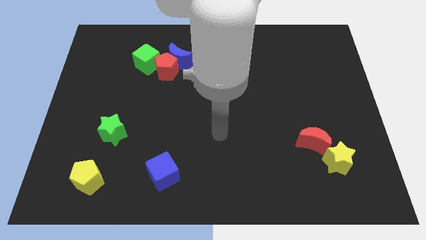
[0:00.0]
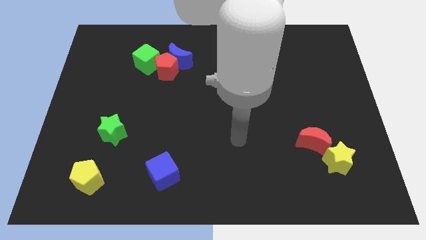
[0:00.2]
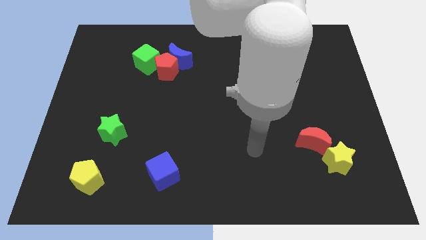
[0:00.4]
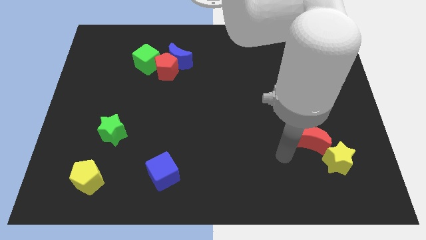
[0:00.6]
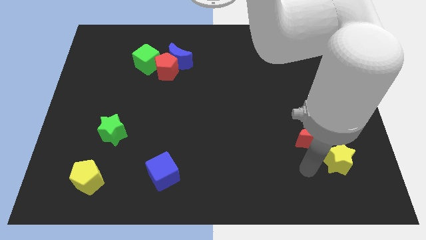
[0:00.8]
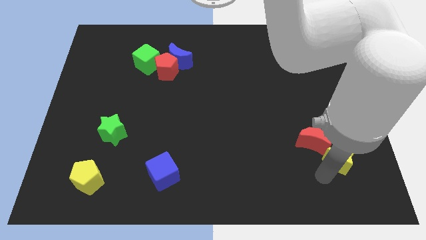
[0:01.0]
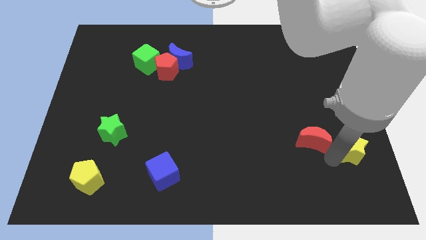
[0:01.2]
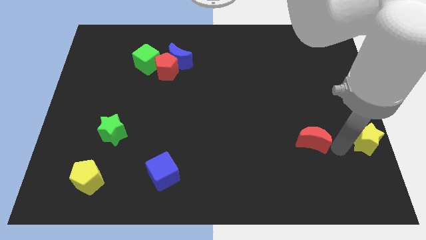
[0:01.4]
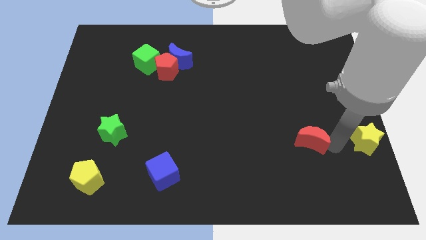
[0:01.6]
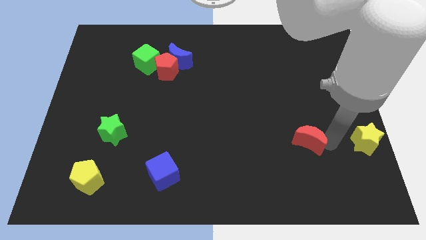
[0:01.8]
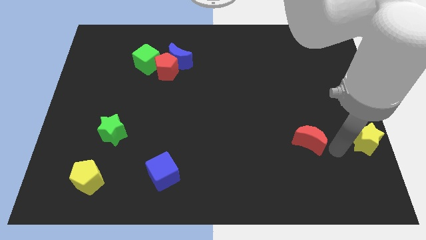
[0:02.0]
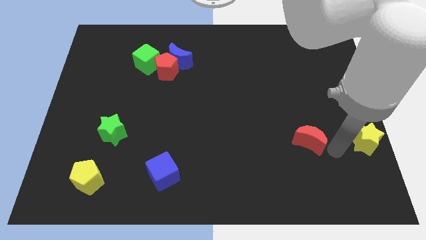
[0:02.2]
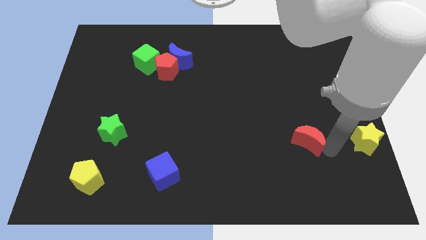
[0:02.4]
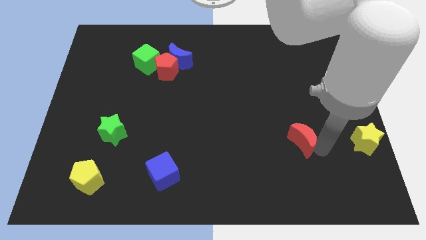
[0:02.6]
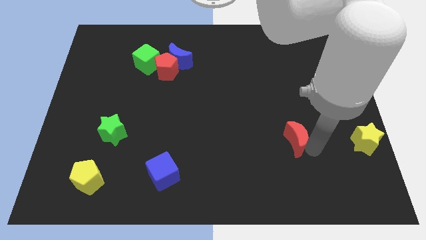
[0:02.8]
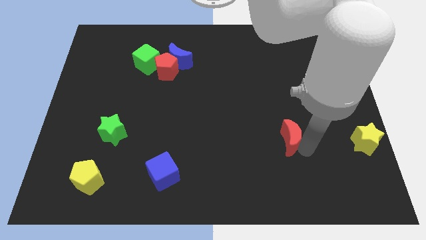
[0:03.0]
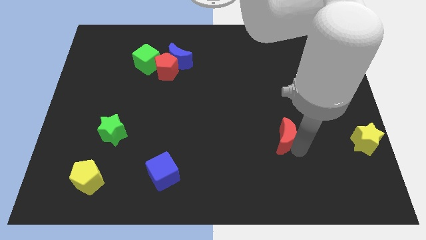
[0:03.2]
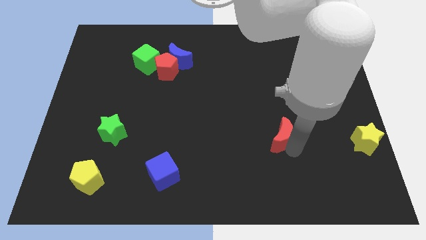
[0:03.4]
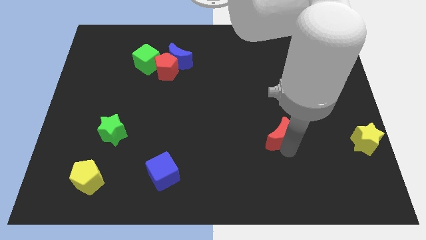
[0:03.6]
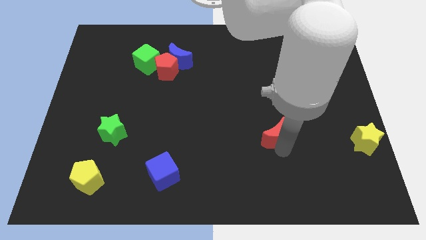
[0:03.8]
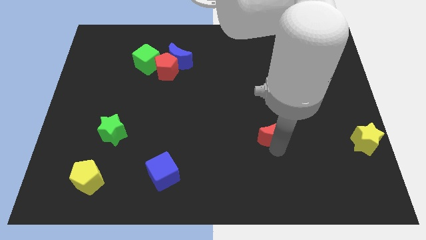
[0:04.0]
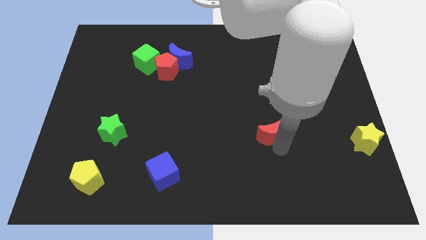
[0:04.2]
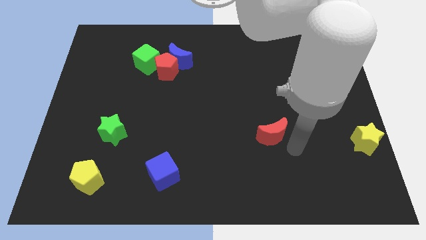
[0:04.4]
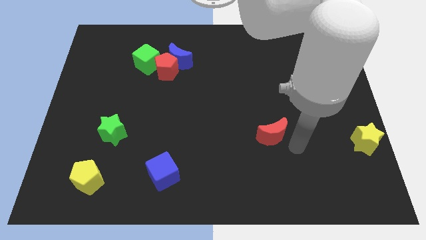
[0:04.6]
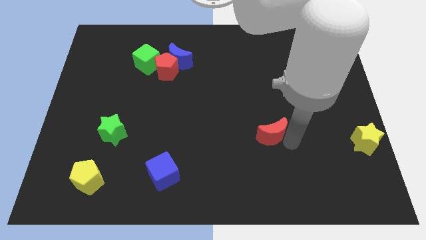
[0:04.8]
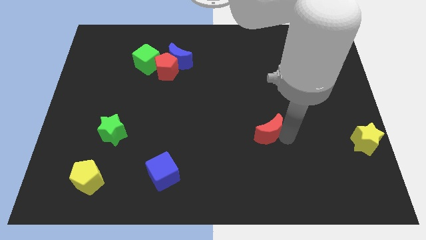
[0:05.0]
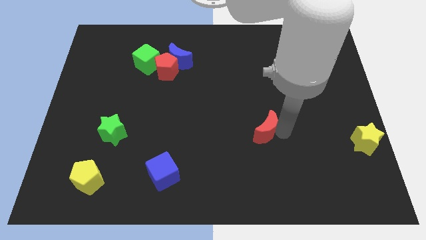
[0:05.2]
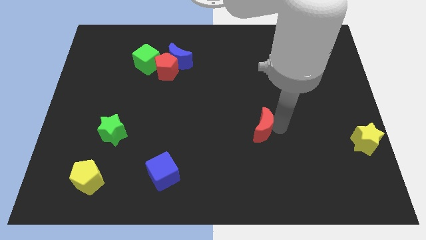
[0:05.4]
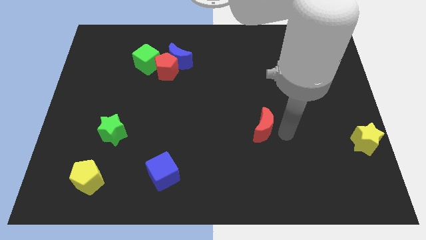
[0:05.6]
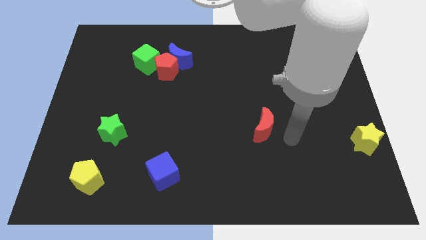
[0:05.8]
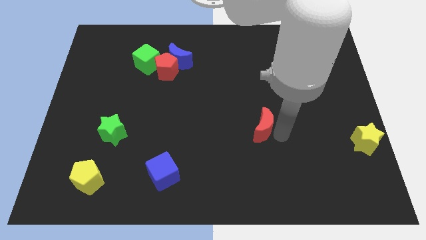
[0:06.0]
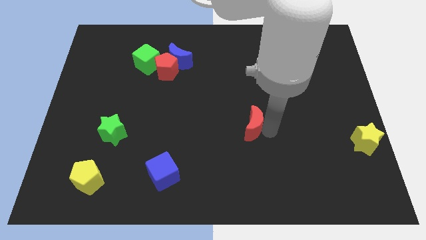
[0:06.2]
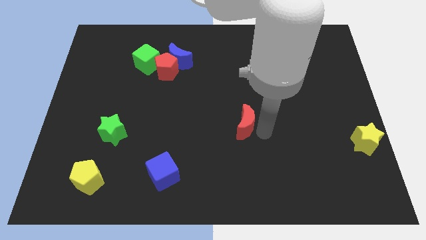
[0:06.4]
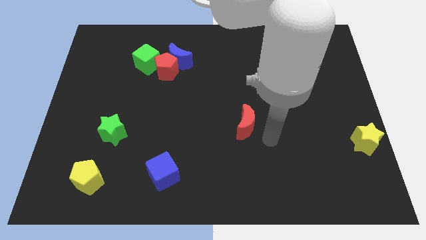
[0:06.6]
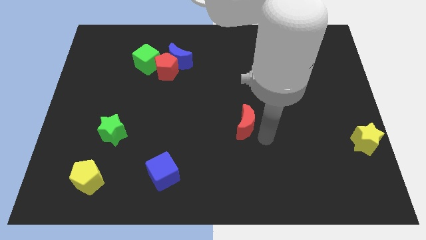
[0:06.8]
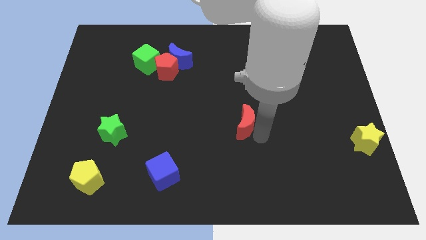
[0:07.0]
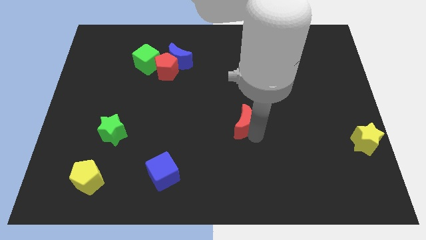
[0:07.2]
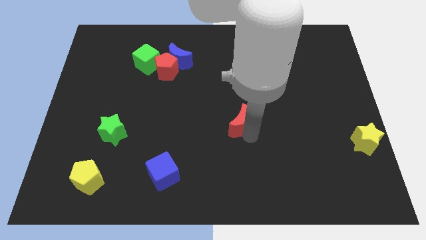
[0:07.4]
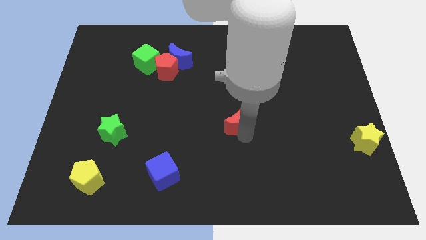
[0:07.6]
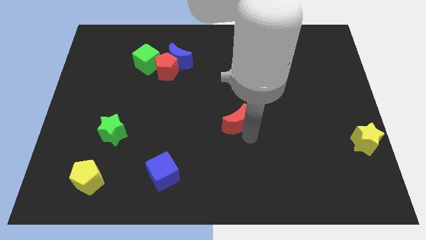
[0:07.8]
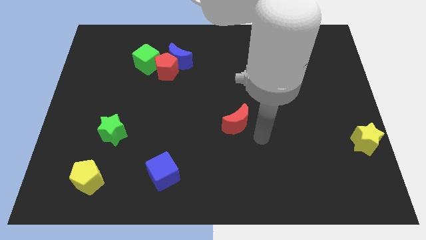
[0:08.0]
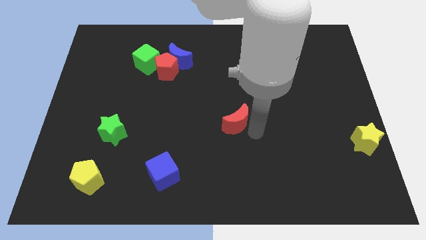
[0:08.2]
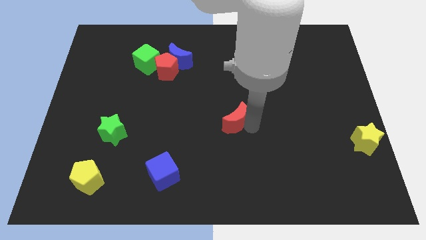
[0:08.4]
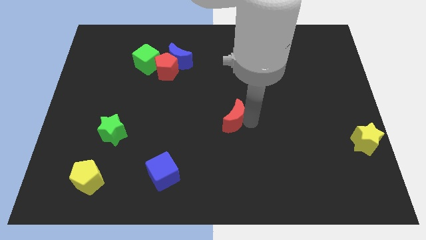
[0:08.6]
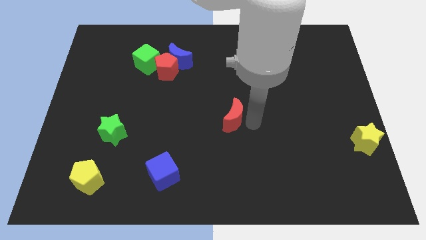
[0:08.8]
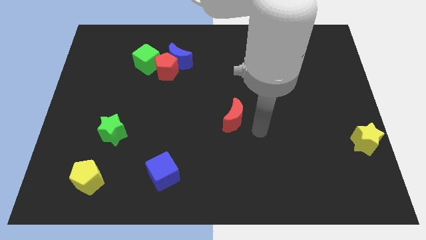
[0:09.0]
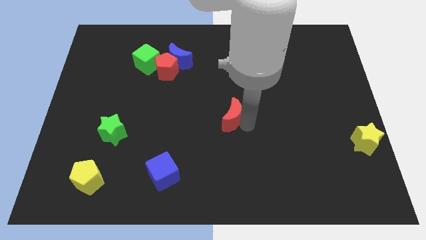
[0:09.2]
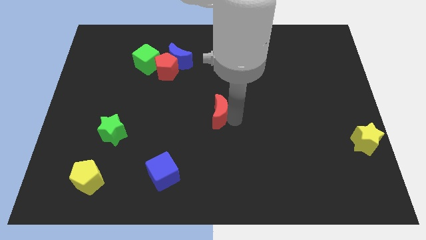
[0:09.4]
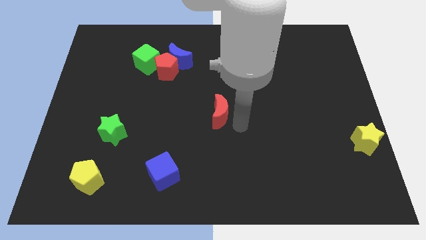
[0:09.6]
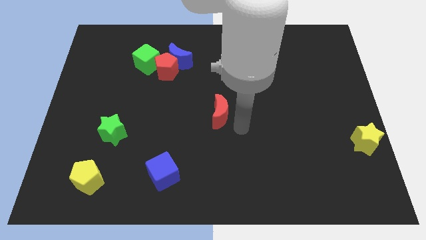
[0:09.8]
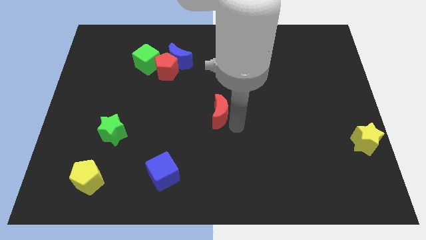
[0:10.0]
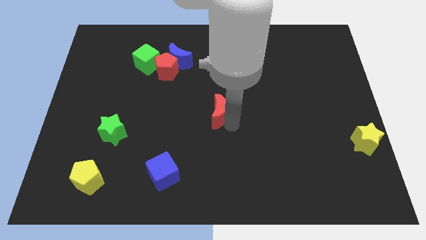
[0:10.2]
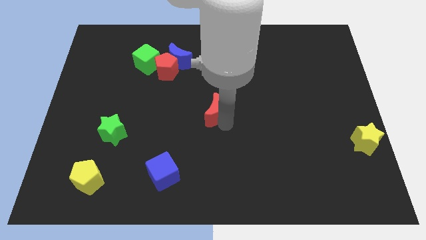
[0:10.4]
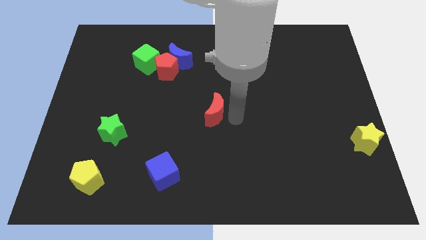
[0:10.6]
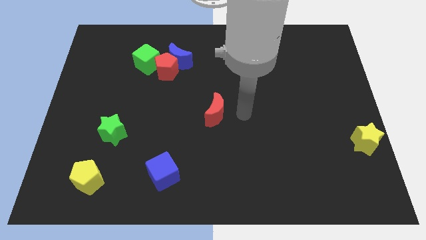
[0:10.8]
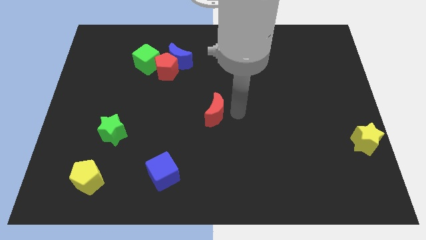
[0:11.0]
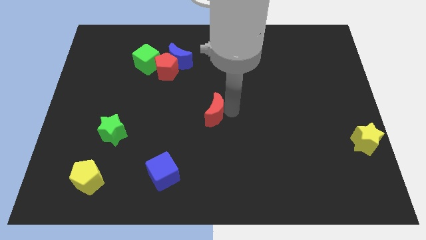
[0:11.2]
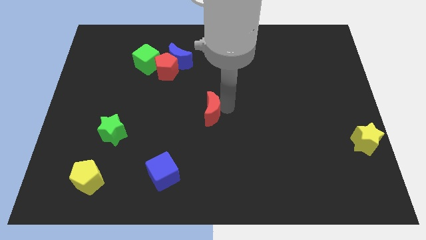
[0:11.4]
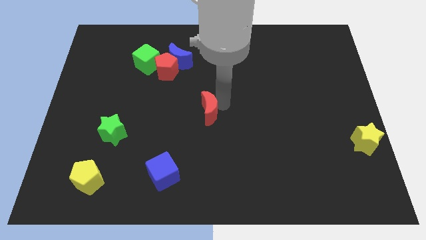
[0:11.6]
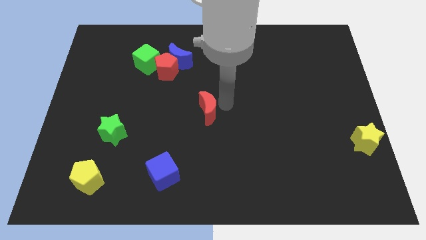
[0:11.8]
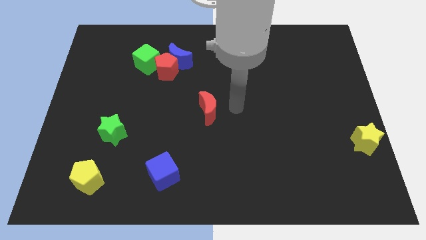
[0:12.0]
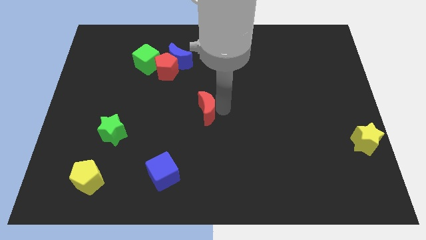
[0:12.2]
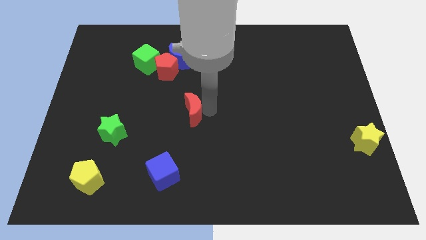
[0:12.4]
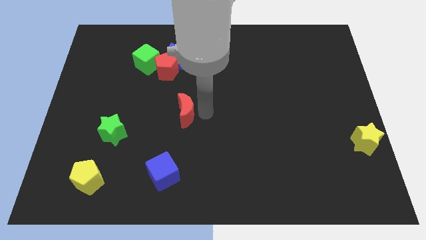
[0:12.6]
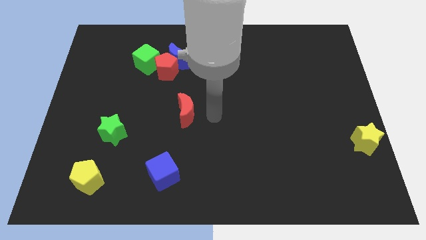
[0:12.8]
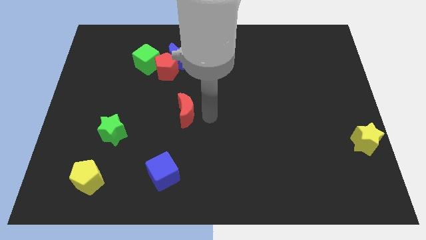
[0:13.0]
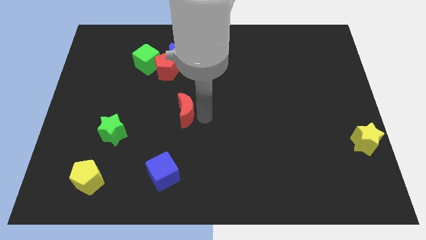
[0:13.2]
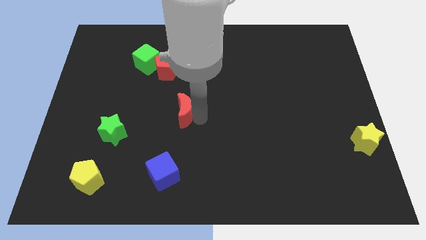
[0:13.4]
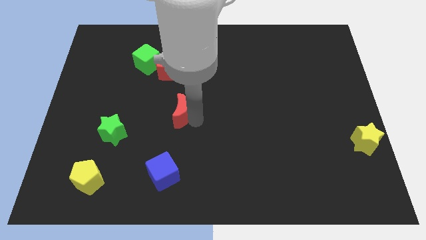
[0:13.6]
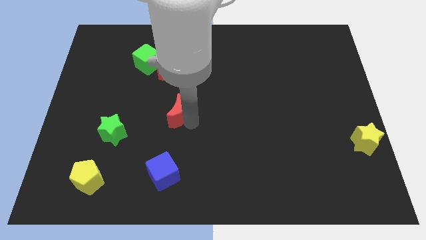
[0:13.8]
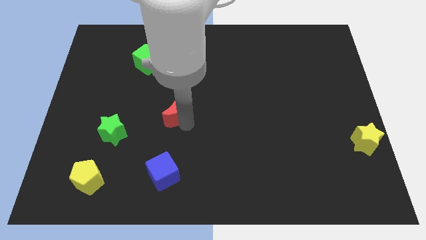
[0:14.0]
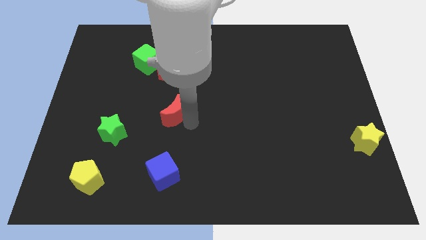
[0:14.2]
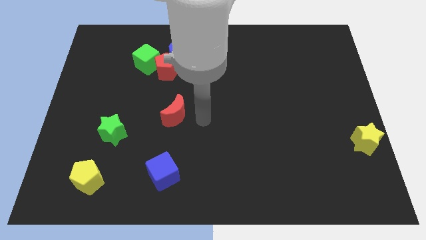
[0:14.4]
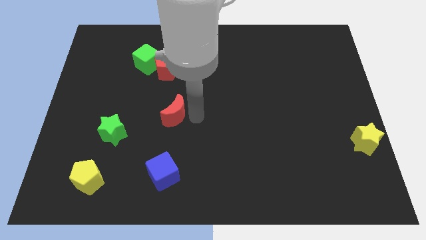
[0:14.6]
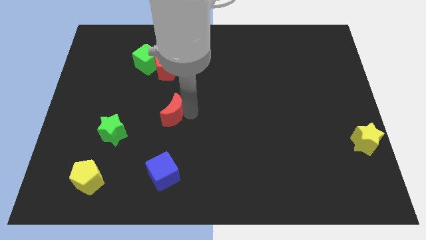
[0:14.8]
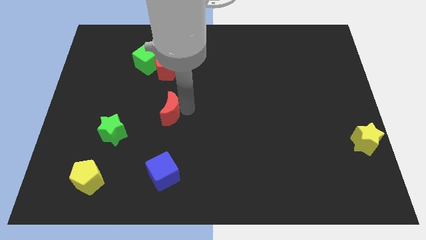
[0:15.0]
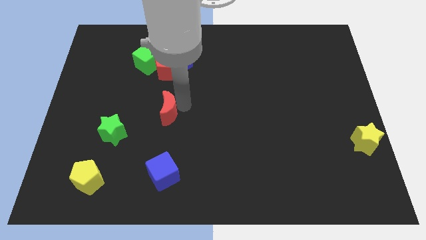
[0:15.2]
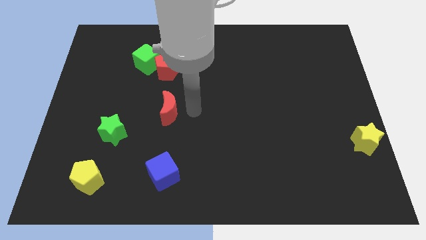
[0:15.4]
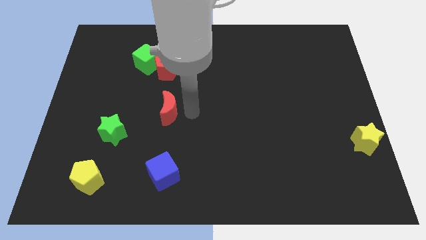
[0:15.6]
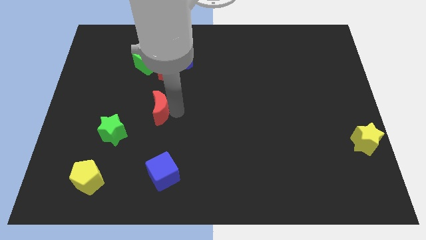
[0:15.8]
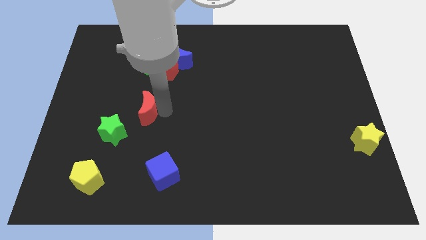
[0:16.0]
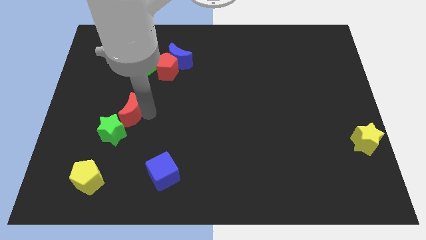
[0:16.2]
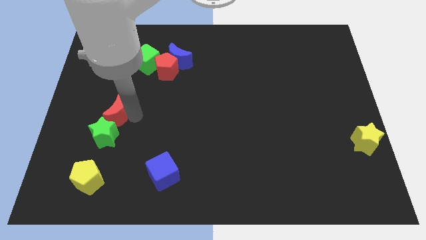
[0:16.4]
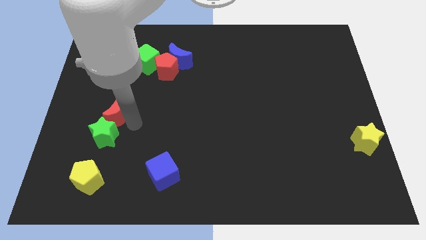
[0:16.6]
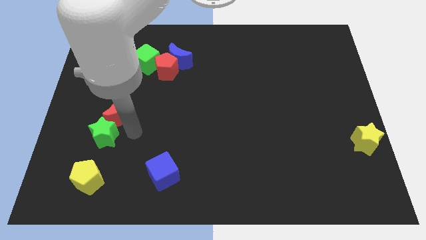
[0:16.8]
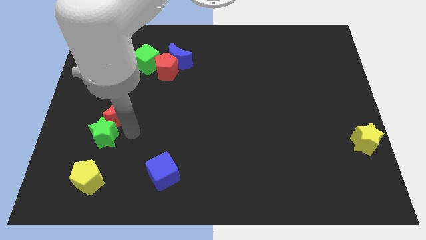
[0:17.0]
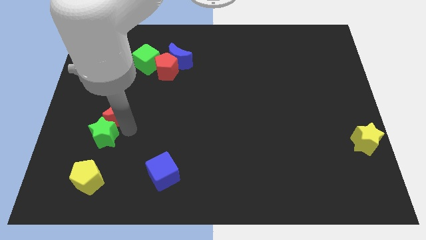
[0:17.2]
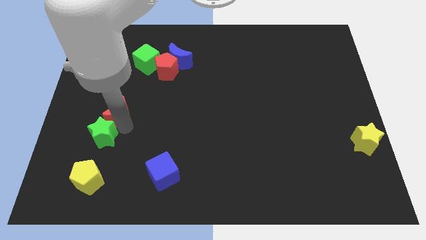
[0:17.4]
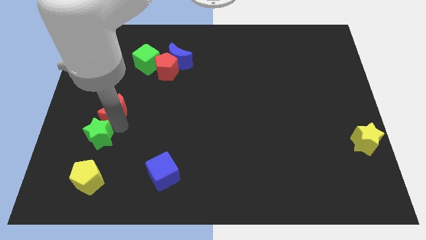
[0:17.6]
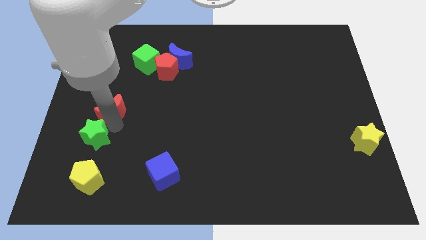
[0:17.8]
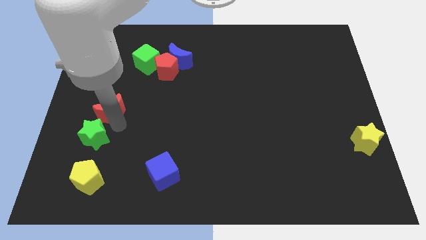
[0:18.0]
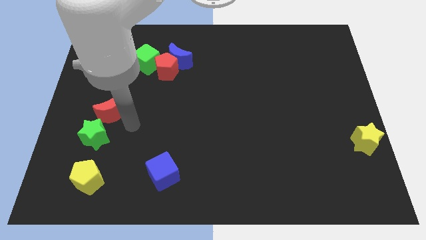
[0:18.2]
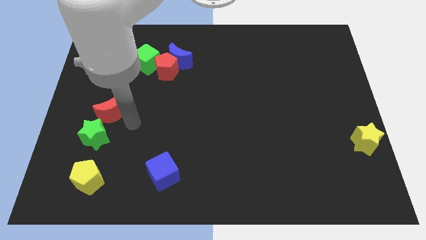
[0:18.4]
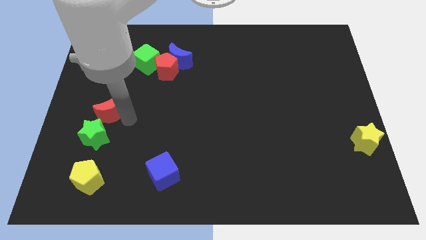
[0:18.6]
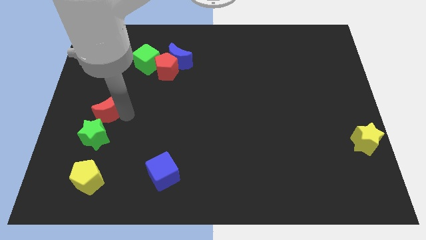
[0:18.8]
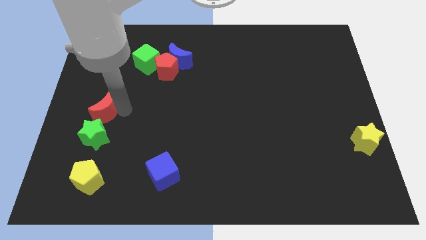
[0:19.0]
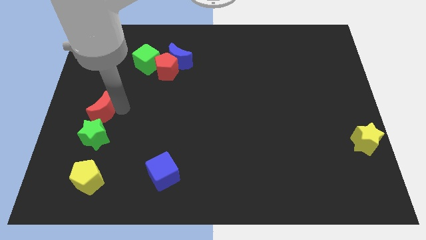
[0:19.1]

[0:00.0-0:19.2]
push the red moon to the center left
